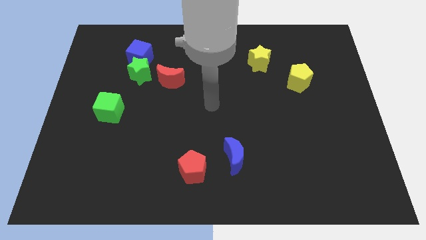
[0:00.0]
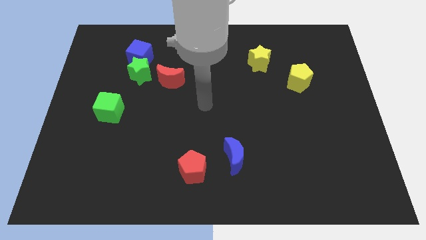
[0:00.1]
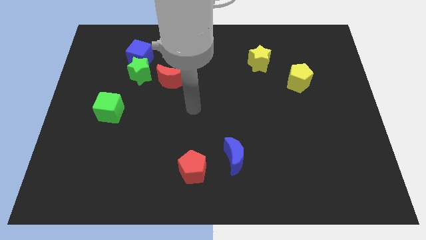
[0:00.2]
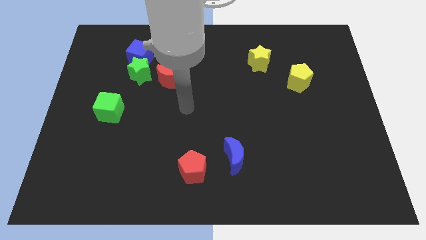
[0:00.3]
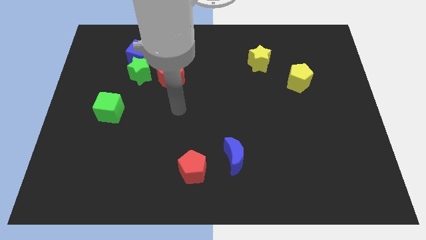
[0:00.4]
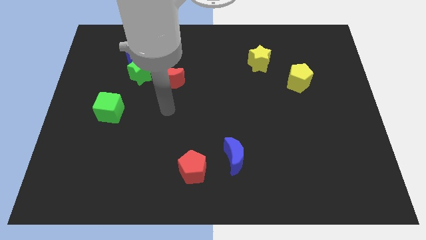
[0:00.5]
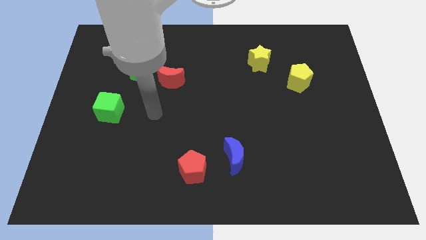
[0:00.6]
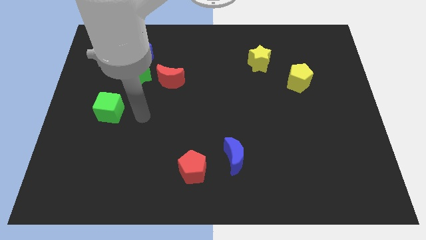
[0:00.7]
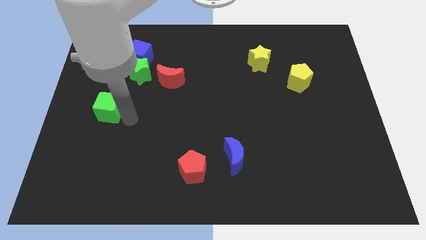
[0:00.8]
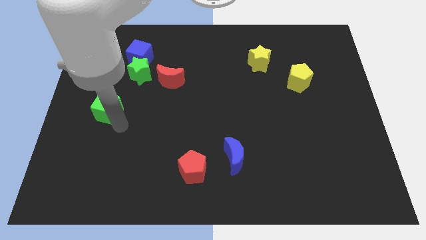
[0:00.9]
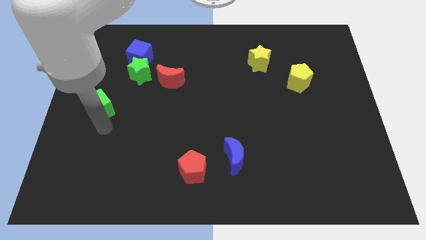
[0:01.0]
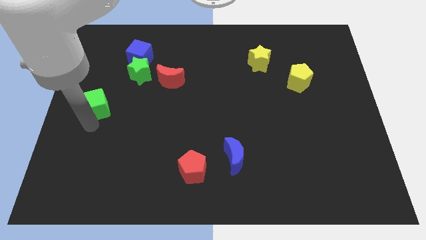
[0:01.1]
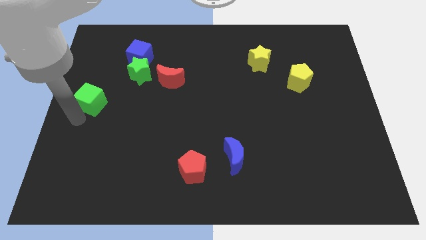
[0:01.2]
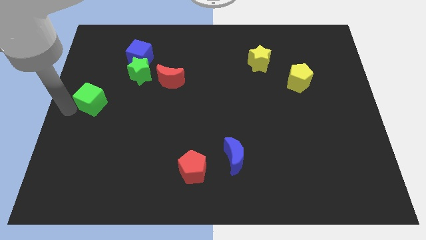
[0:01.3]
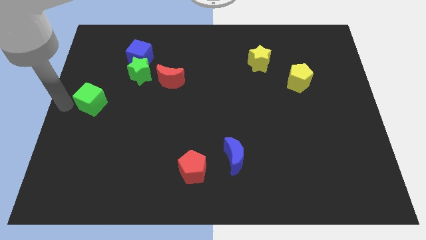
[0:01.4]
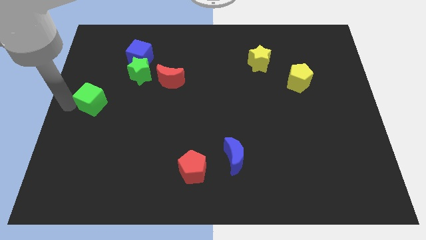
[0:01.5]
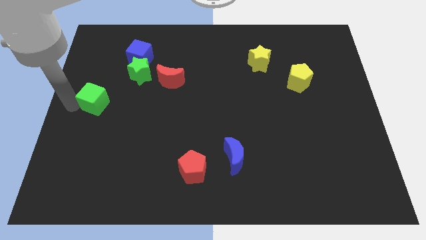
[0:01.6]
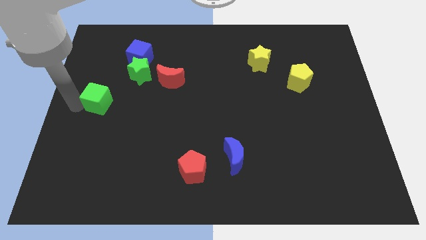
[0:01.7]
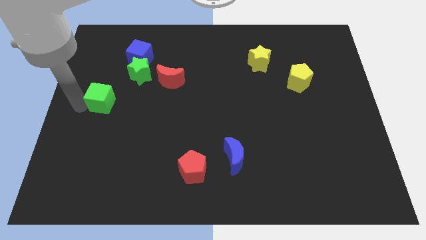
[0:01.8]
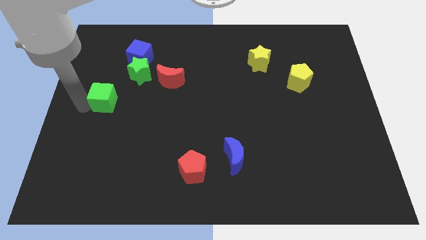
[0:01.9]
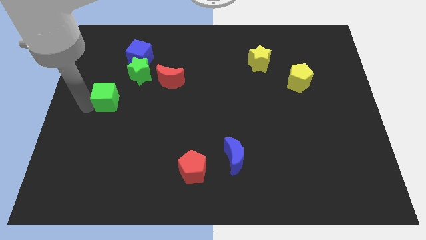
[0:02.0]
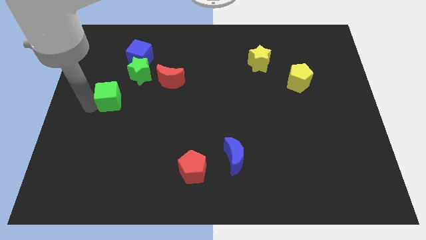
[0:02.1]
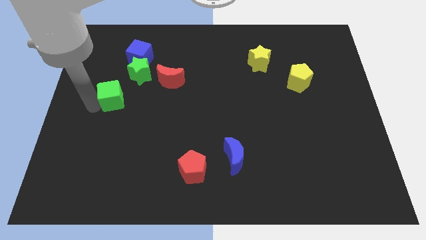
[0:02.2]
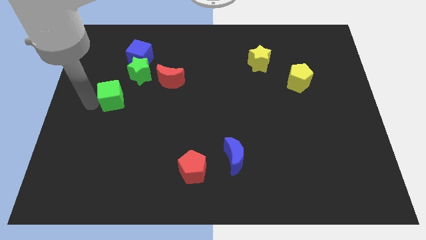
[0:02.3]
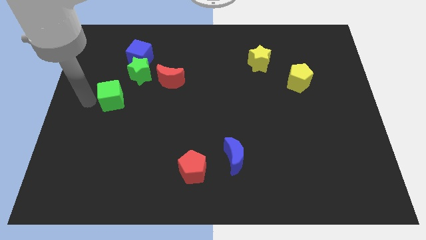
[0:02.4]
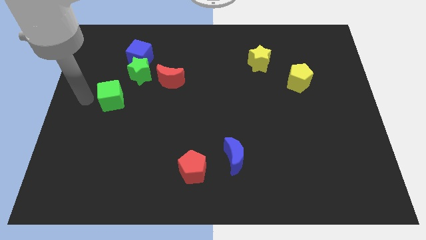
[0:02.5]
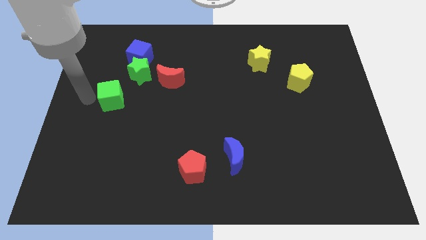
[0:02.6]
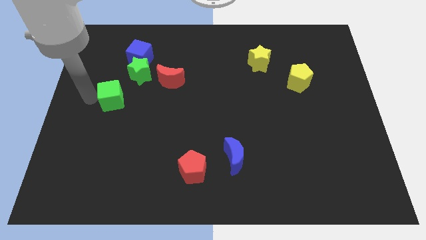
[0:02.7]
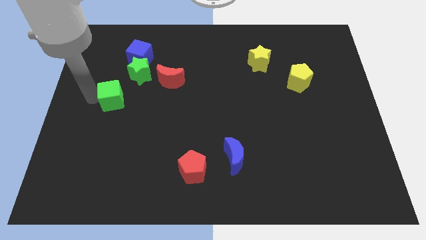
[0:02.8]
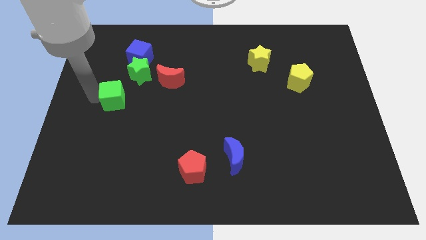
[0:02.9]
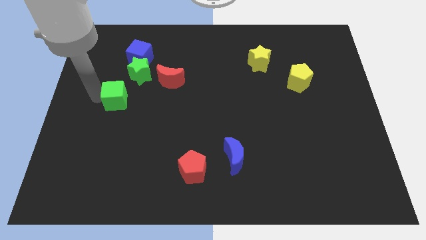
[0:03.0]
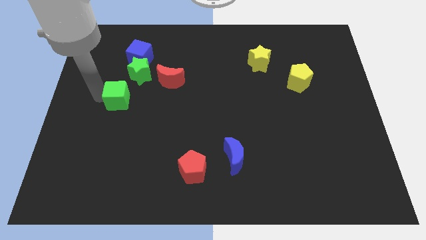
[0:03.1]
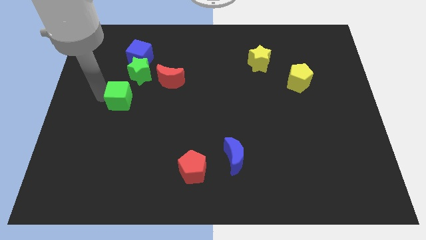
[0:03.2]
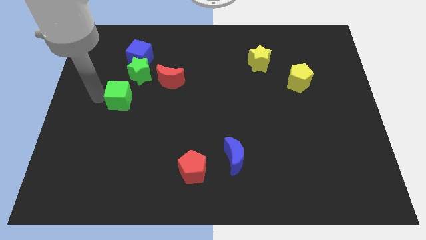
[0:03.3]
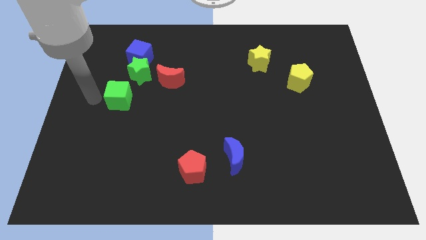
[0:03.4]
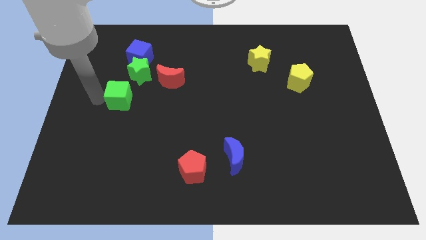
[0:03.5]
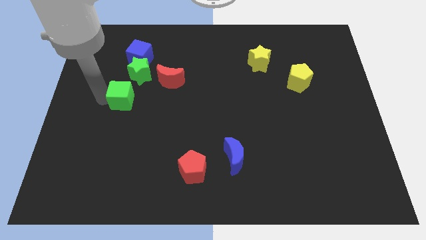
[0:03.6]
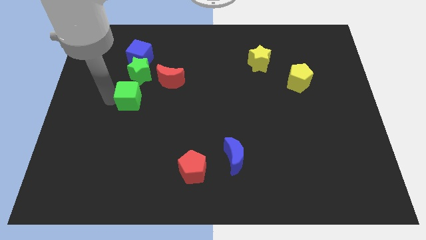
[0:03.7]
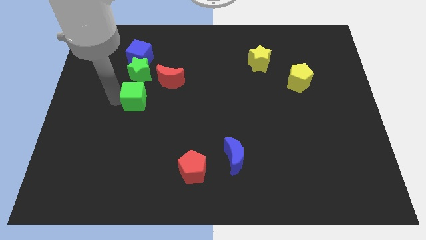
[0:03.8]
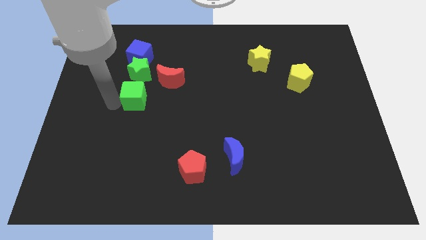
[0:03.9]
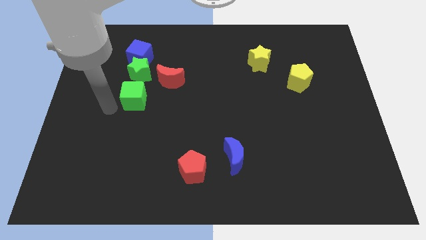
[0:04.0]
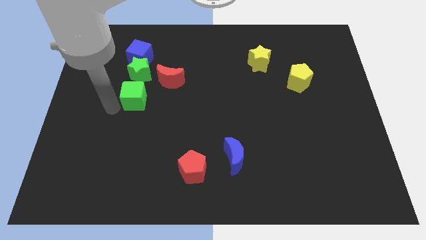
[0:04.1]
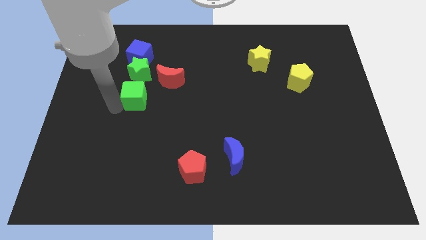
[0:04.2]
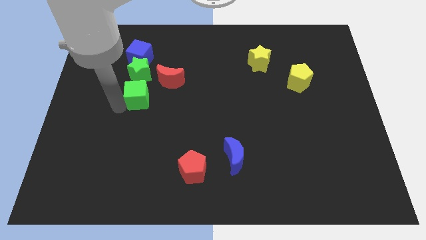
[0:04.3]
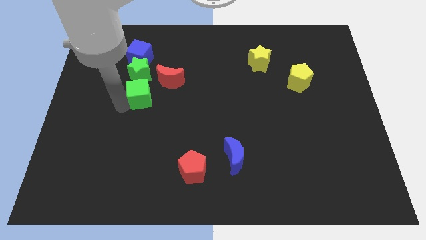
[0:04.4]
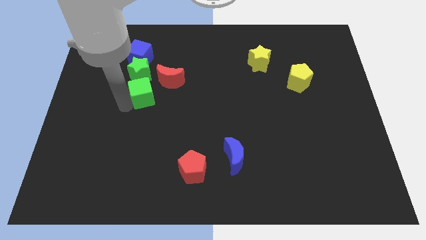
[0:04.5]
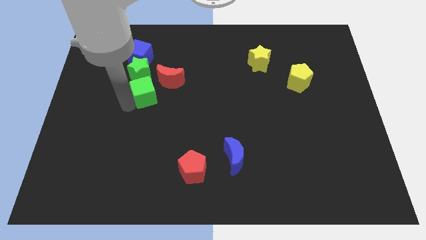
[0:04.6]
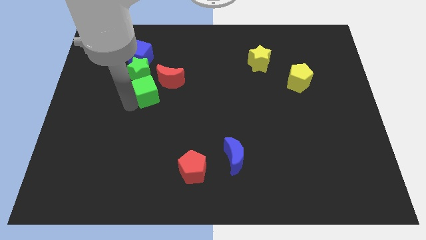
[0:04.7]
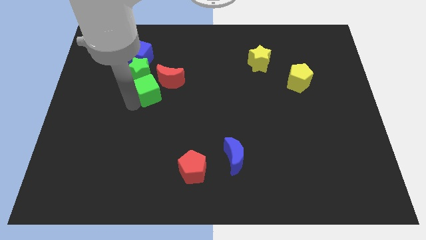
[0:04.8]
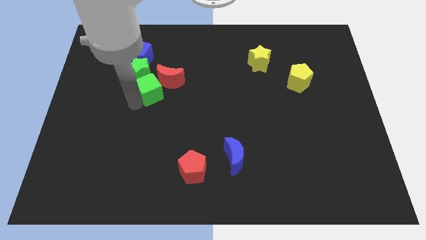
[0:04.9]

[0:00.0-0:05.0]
push the green cube next to the red moon

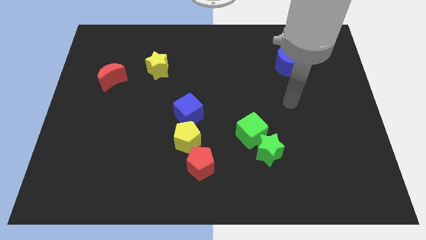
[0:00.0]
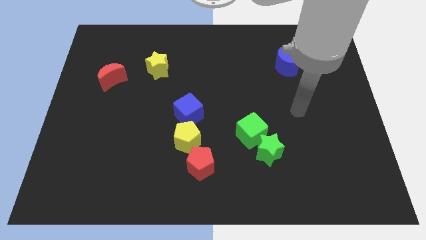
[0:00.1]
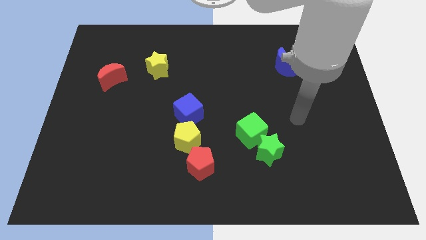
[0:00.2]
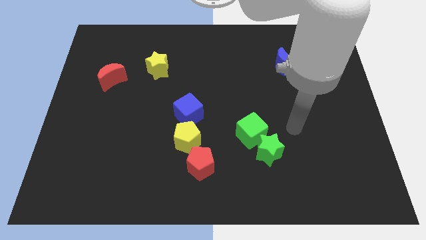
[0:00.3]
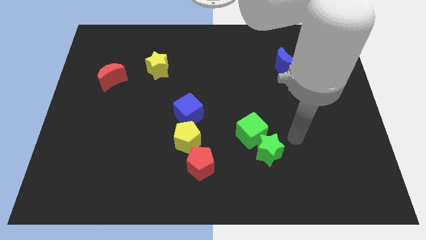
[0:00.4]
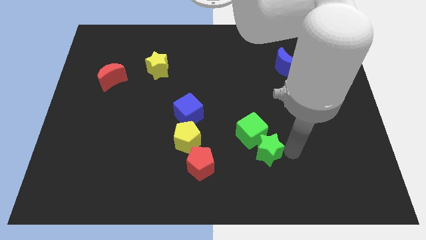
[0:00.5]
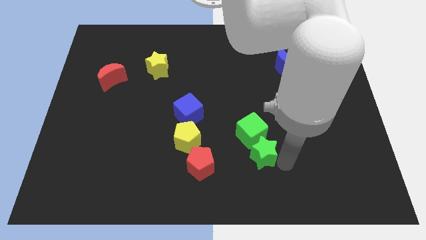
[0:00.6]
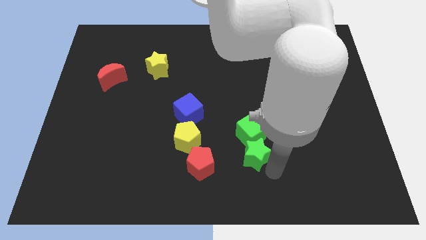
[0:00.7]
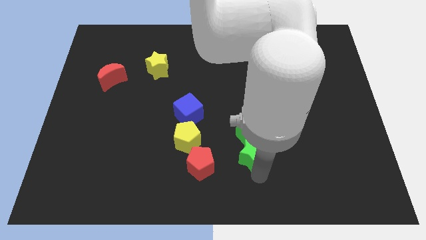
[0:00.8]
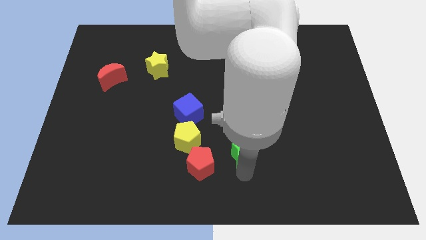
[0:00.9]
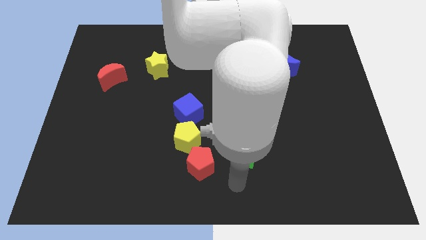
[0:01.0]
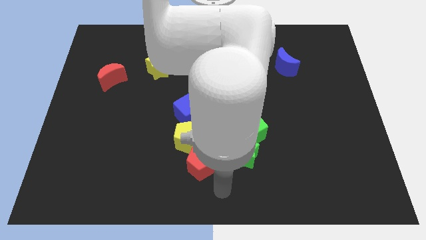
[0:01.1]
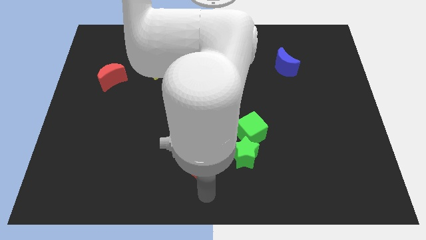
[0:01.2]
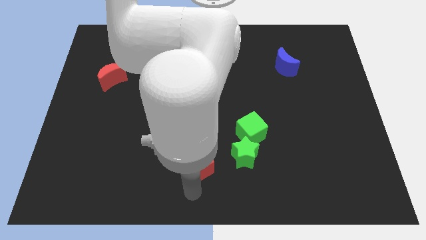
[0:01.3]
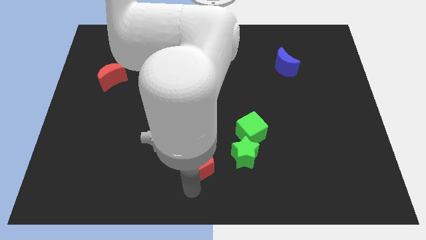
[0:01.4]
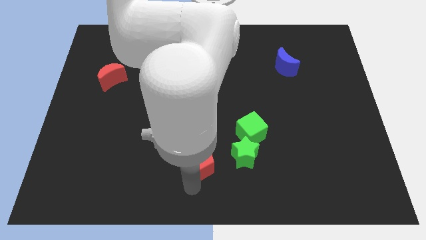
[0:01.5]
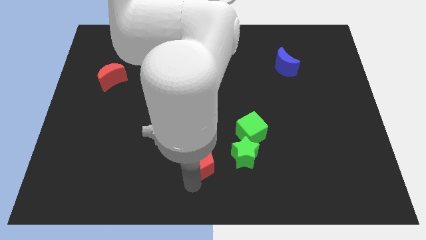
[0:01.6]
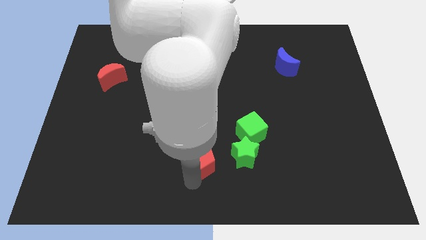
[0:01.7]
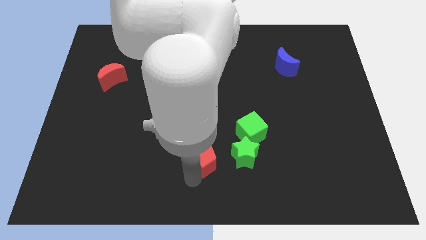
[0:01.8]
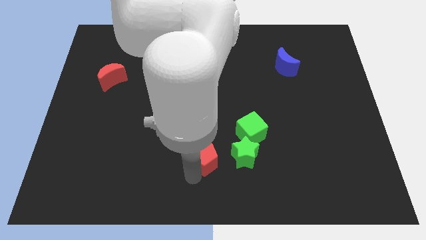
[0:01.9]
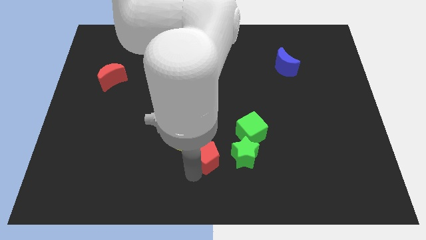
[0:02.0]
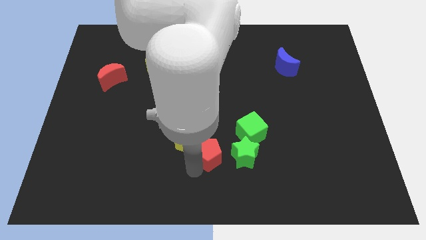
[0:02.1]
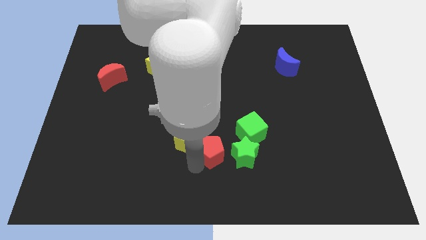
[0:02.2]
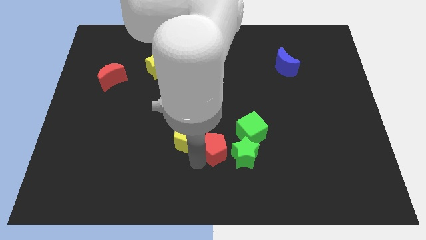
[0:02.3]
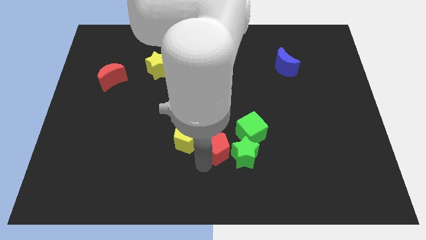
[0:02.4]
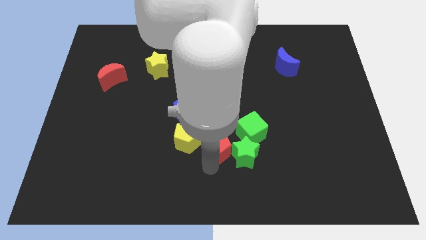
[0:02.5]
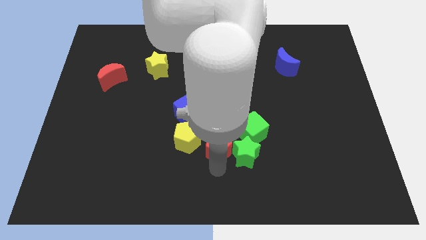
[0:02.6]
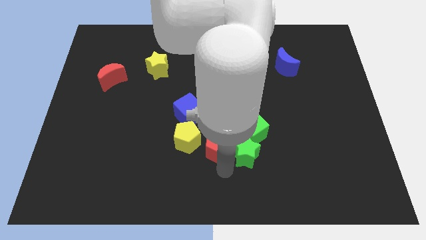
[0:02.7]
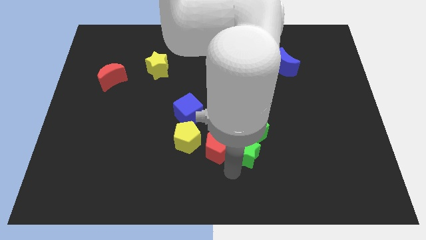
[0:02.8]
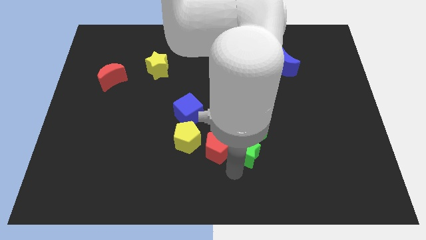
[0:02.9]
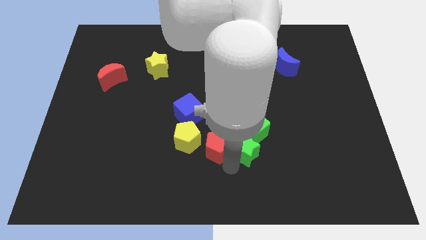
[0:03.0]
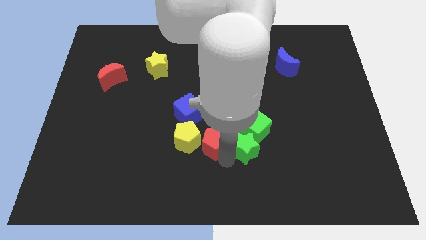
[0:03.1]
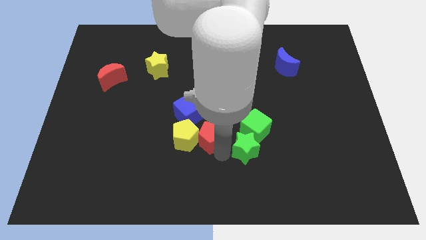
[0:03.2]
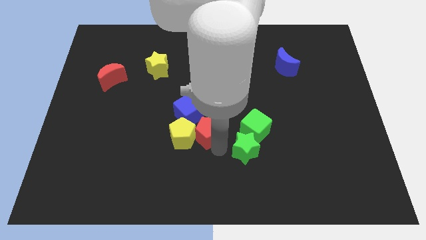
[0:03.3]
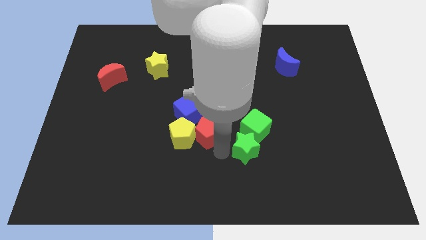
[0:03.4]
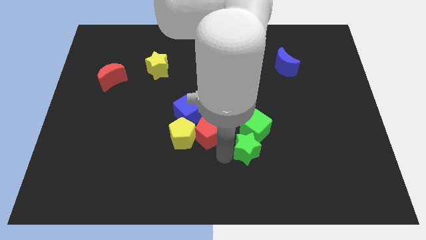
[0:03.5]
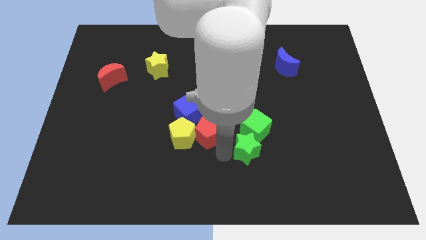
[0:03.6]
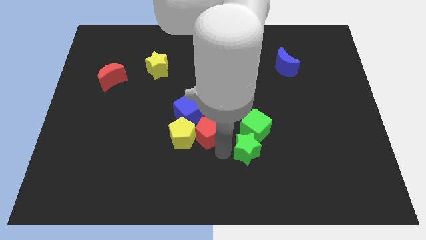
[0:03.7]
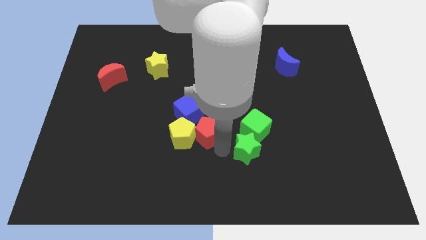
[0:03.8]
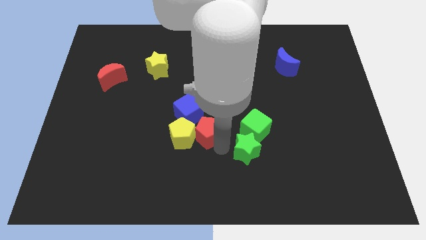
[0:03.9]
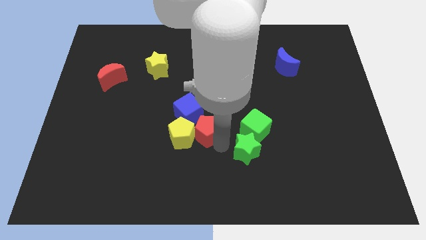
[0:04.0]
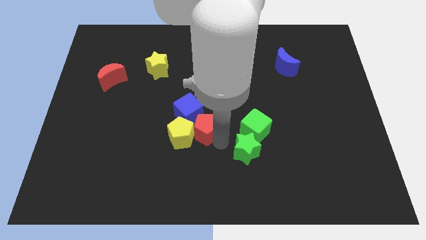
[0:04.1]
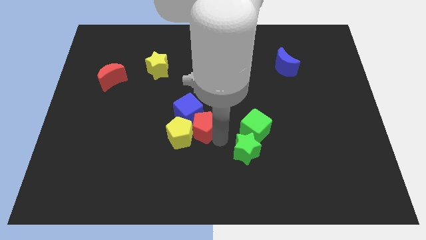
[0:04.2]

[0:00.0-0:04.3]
push the red pentagon close to the blue cube
